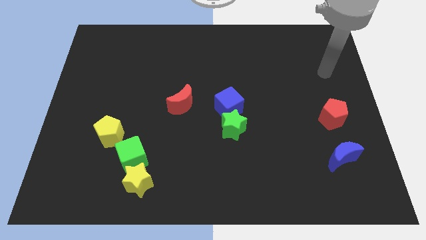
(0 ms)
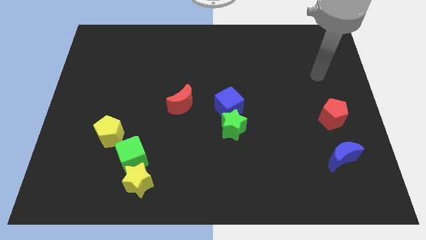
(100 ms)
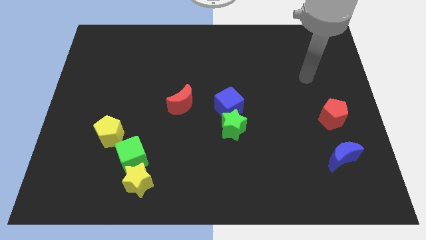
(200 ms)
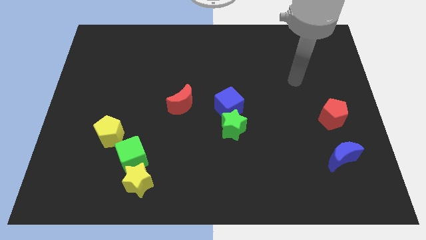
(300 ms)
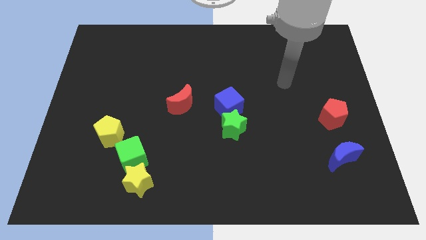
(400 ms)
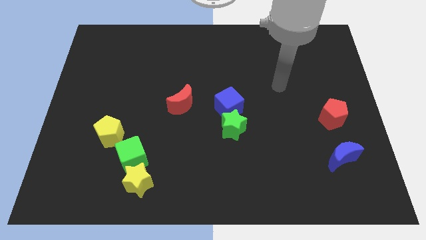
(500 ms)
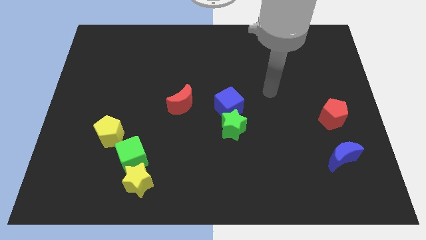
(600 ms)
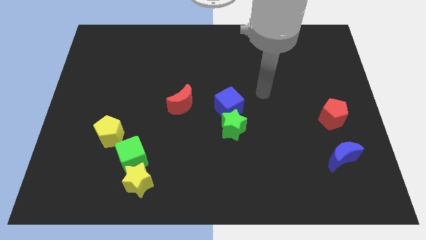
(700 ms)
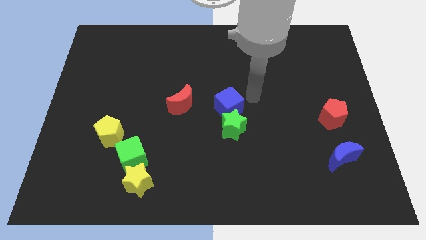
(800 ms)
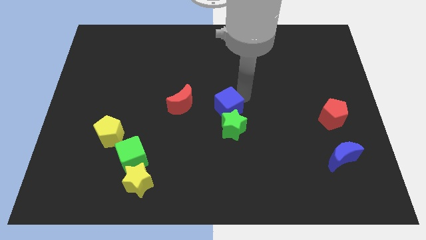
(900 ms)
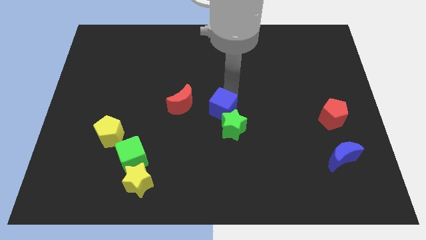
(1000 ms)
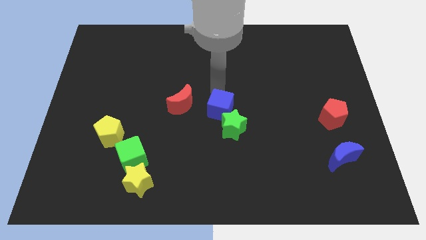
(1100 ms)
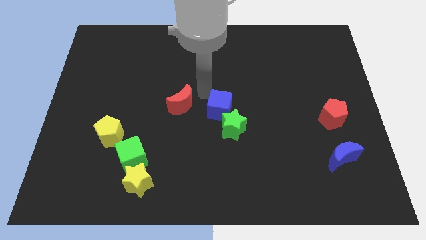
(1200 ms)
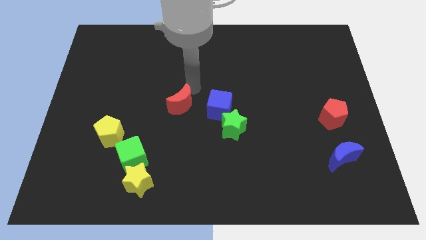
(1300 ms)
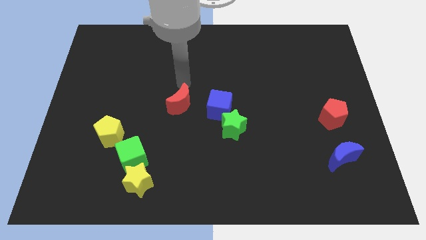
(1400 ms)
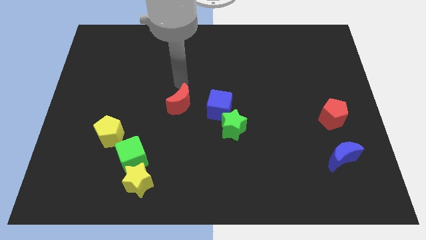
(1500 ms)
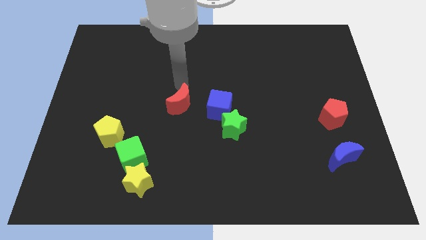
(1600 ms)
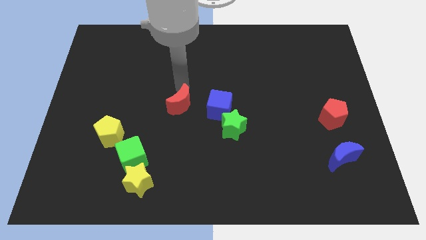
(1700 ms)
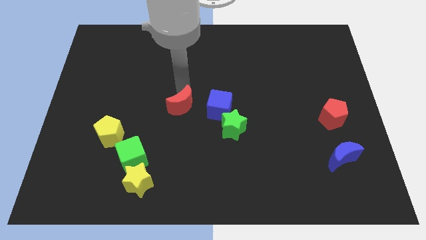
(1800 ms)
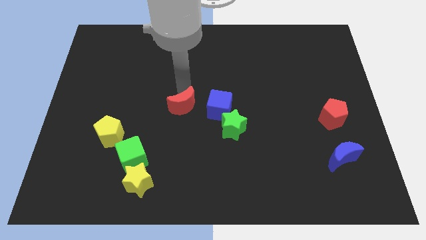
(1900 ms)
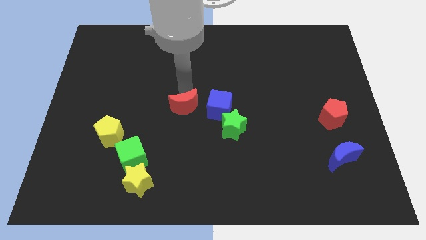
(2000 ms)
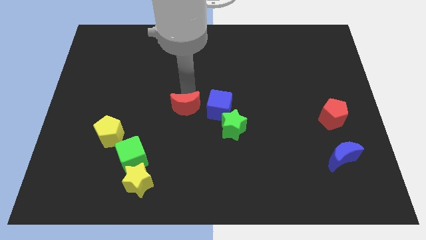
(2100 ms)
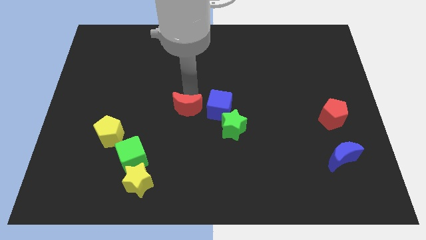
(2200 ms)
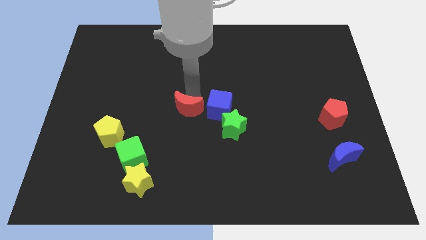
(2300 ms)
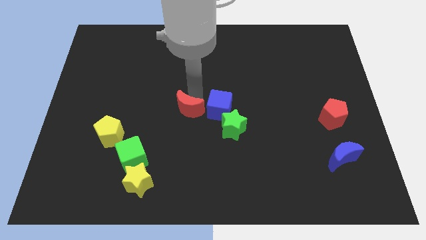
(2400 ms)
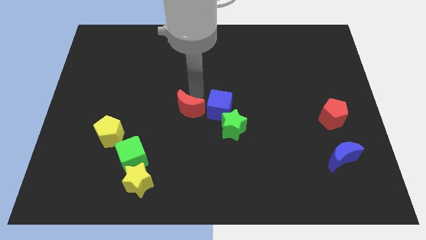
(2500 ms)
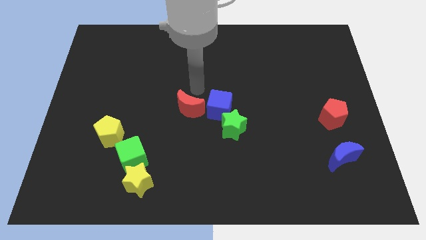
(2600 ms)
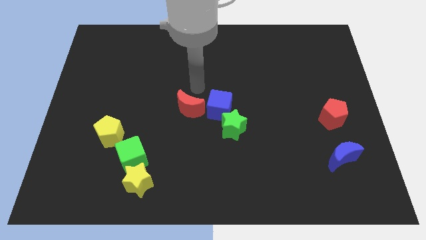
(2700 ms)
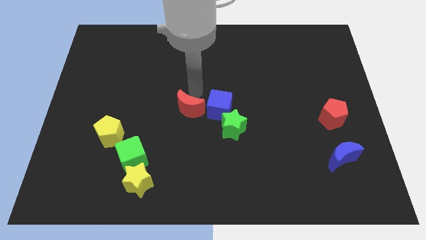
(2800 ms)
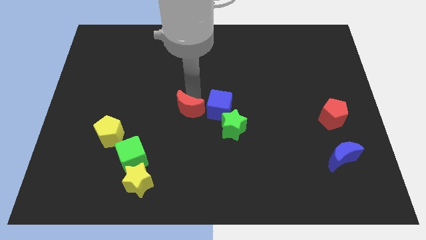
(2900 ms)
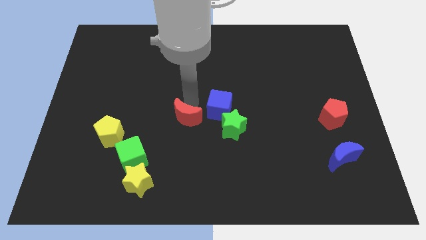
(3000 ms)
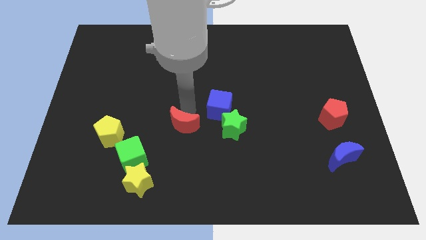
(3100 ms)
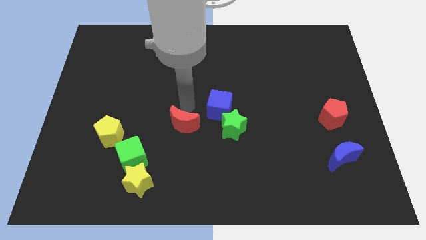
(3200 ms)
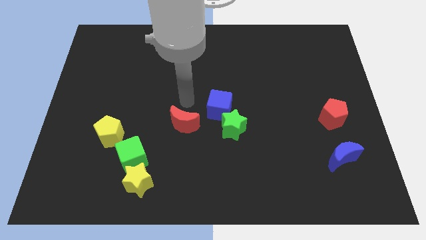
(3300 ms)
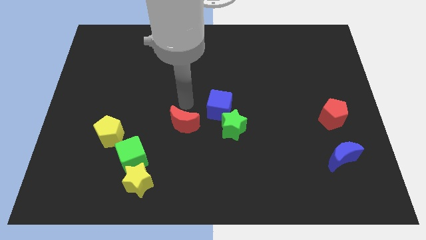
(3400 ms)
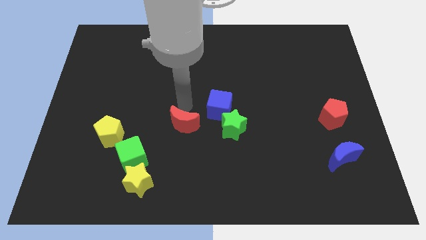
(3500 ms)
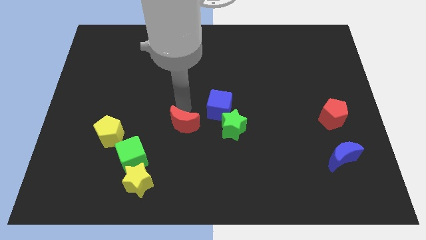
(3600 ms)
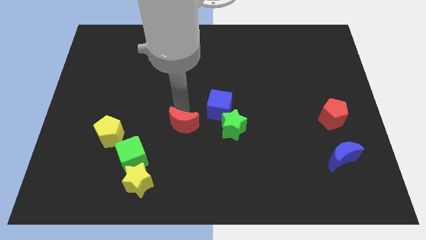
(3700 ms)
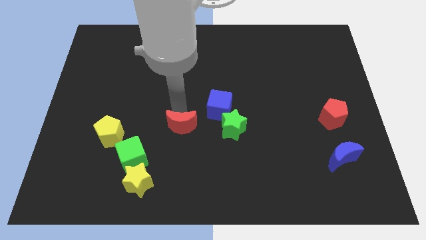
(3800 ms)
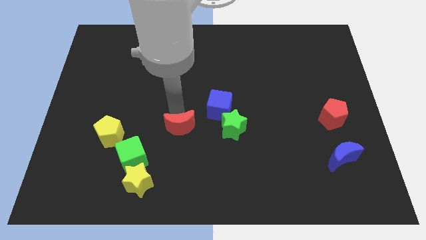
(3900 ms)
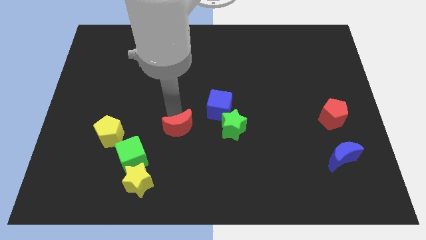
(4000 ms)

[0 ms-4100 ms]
move the red moon slightly down

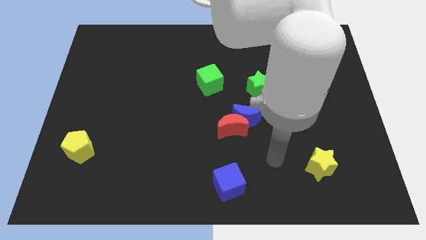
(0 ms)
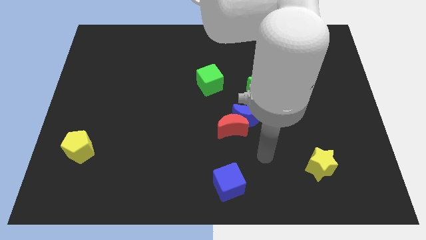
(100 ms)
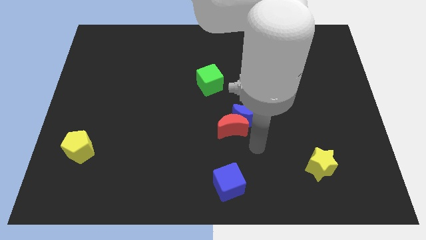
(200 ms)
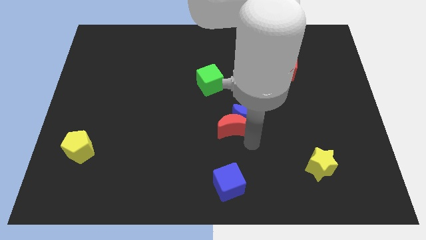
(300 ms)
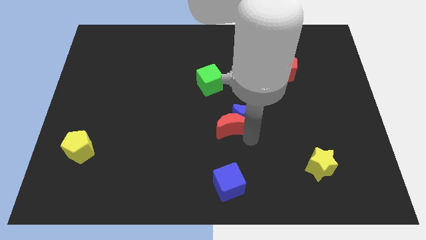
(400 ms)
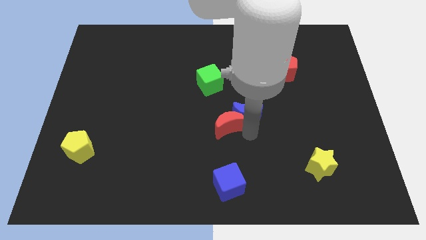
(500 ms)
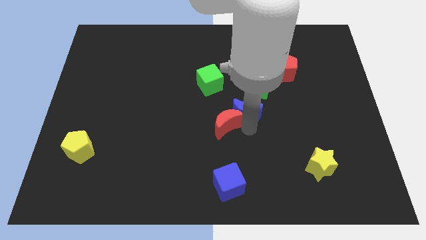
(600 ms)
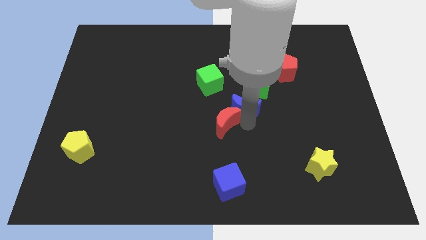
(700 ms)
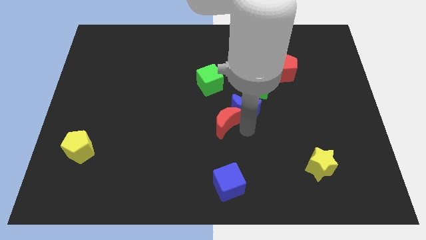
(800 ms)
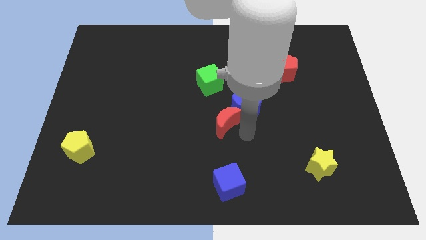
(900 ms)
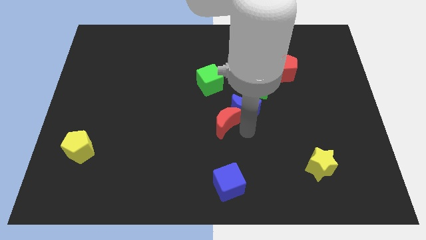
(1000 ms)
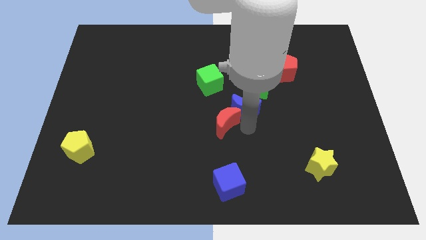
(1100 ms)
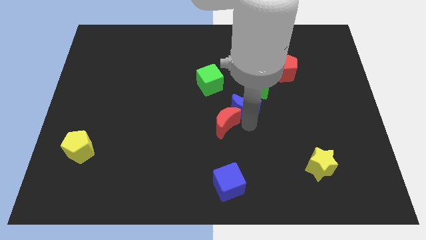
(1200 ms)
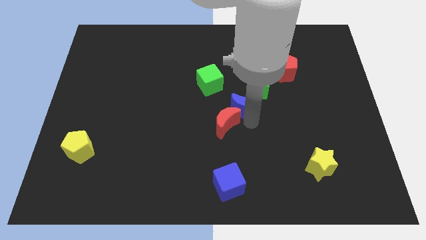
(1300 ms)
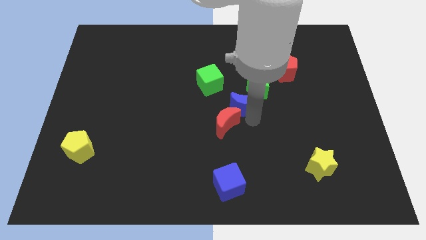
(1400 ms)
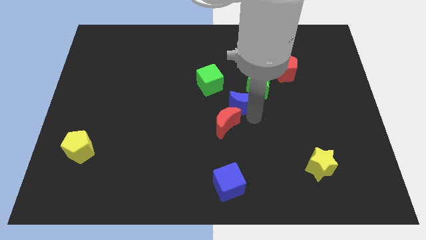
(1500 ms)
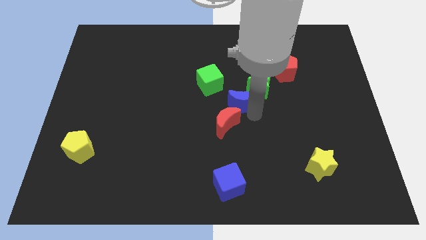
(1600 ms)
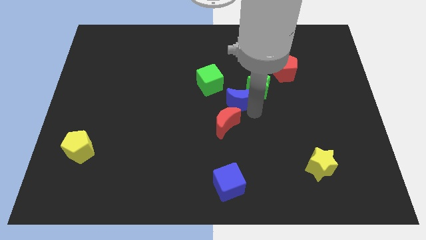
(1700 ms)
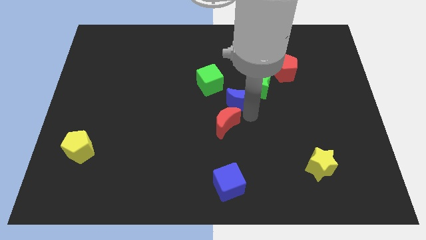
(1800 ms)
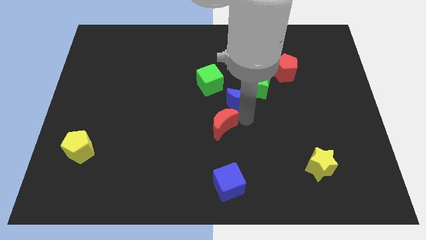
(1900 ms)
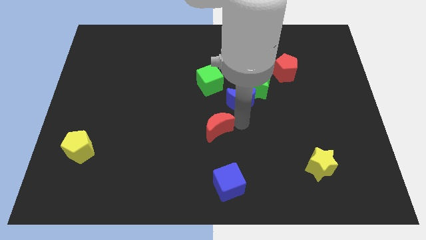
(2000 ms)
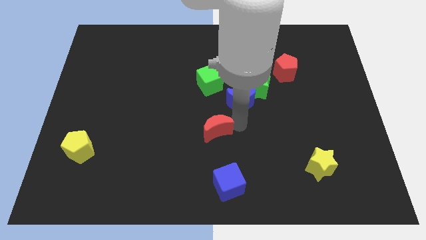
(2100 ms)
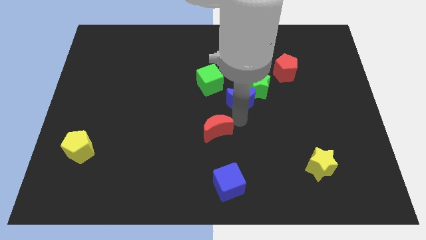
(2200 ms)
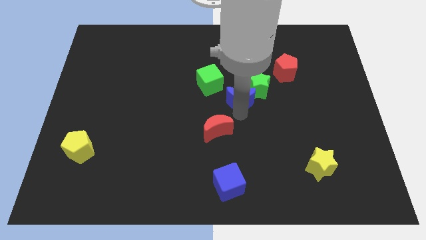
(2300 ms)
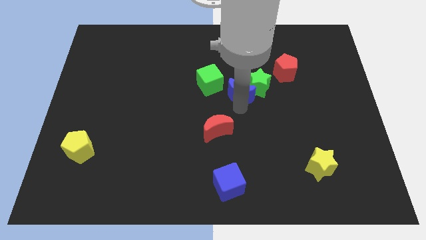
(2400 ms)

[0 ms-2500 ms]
move the blue moon a little bit upwards

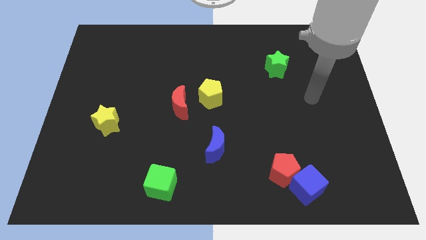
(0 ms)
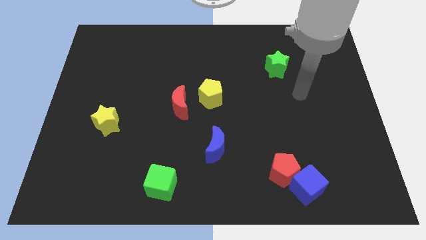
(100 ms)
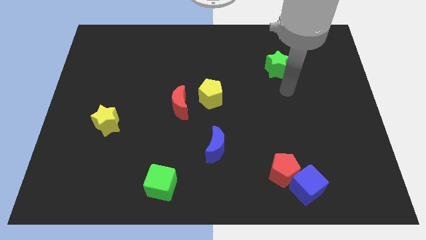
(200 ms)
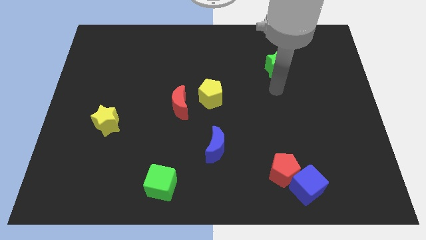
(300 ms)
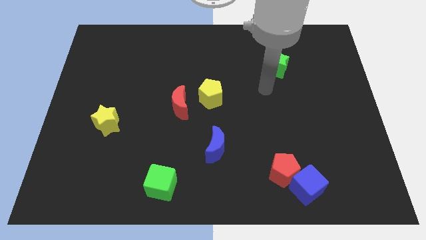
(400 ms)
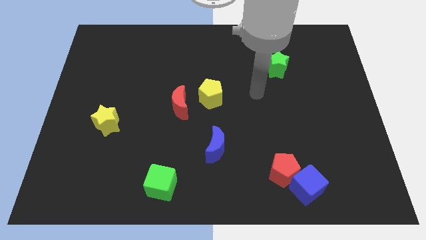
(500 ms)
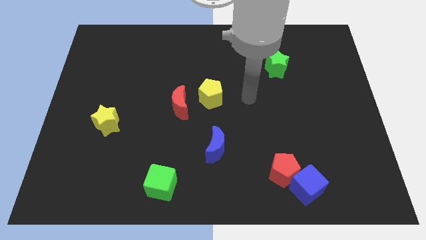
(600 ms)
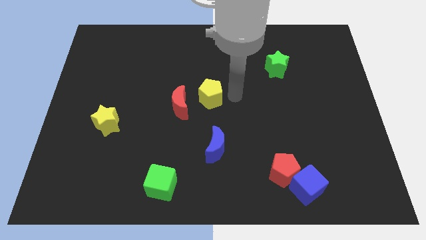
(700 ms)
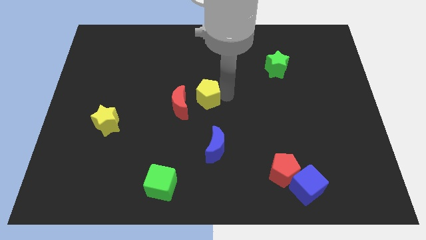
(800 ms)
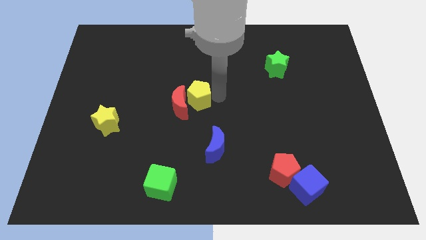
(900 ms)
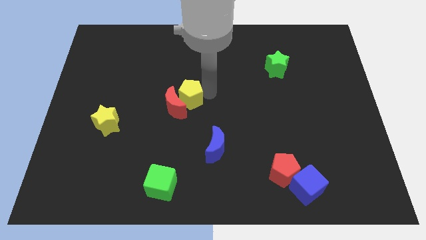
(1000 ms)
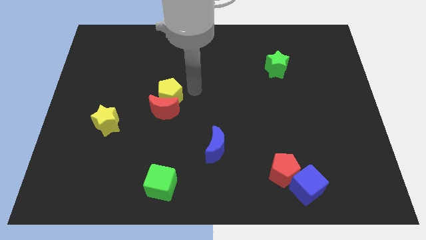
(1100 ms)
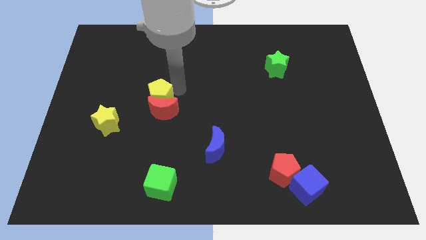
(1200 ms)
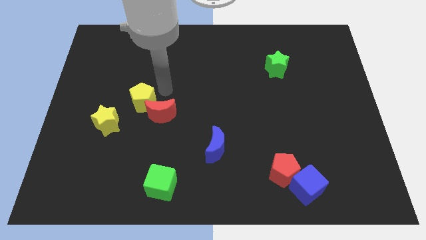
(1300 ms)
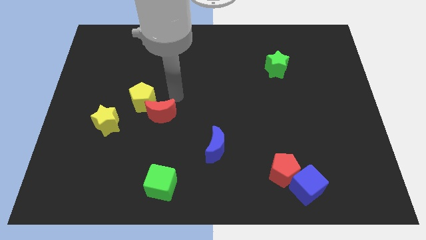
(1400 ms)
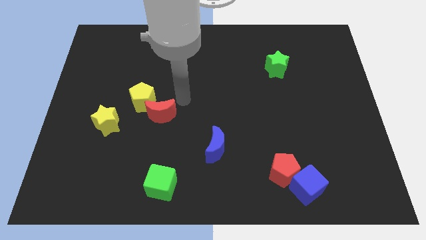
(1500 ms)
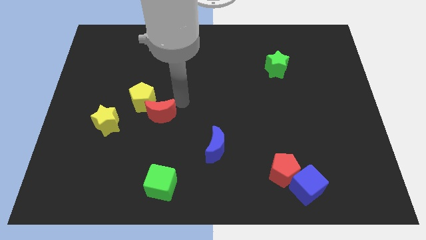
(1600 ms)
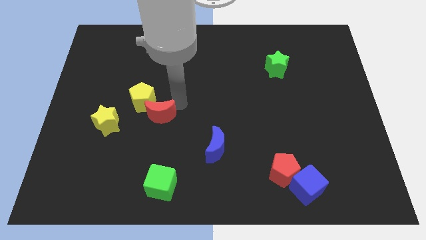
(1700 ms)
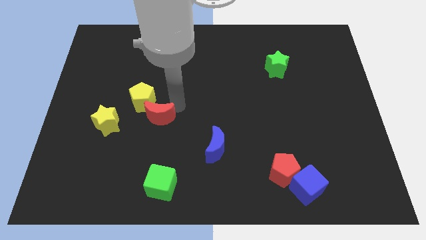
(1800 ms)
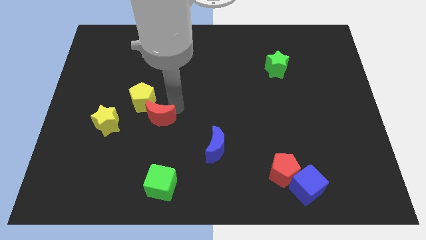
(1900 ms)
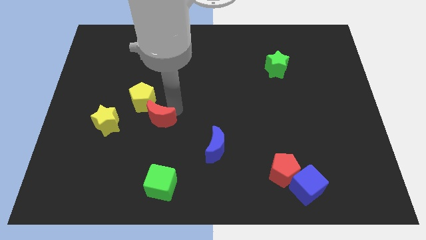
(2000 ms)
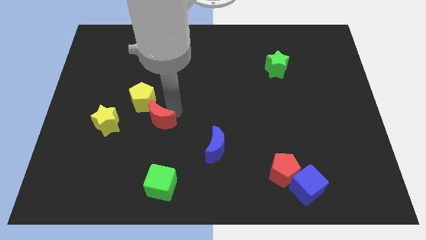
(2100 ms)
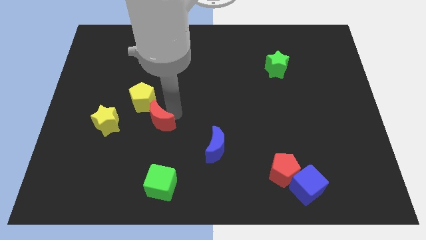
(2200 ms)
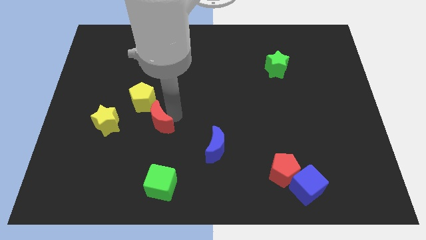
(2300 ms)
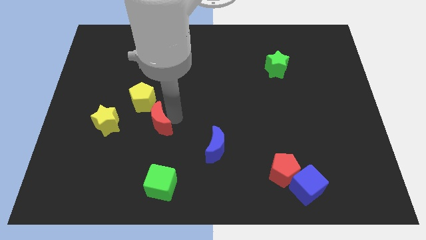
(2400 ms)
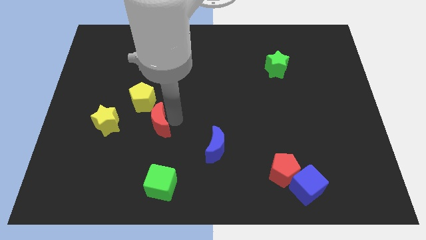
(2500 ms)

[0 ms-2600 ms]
slightly move the red moon diagonally down and left
